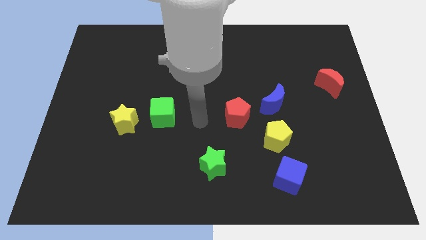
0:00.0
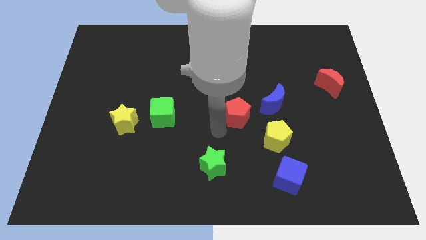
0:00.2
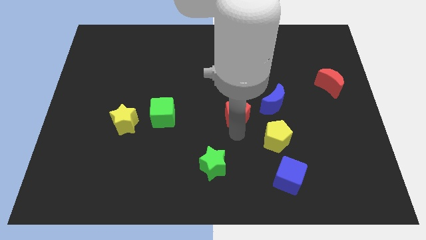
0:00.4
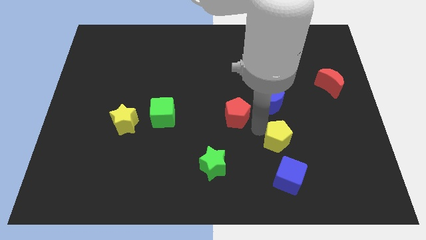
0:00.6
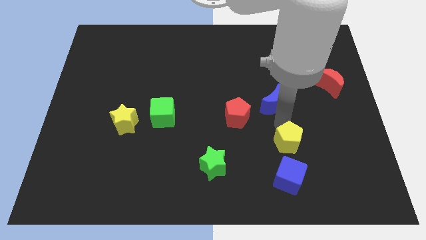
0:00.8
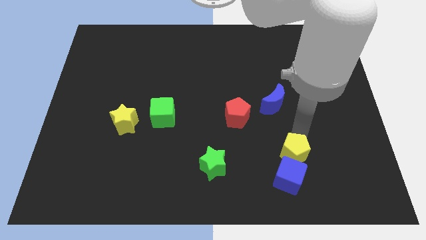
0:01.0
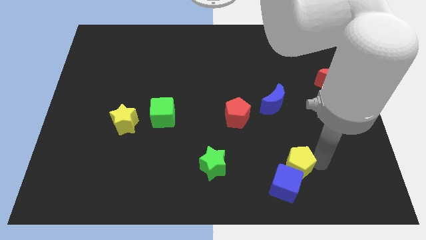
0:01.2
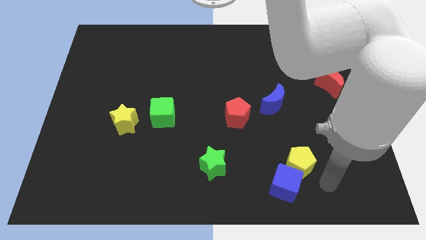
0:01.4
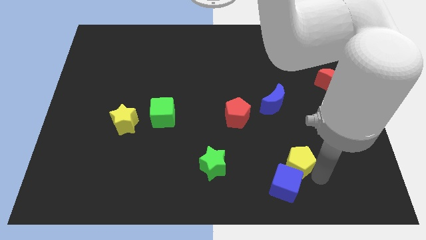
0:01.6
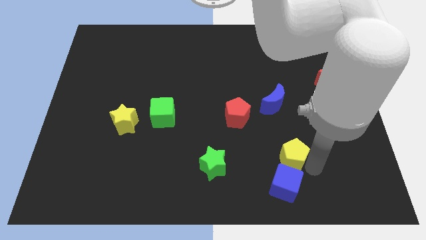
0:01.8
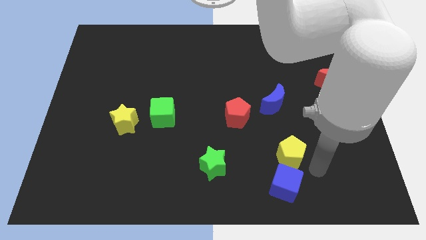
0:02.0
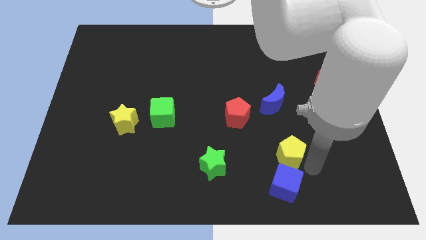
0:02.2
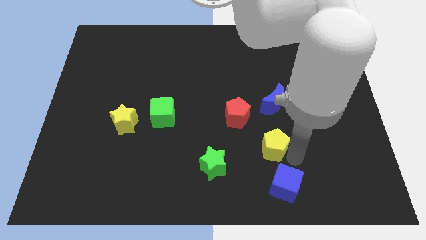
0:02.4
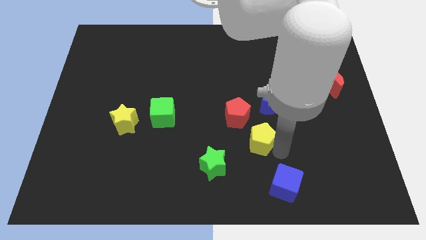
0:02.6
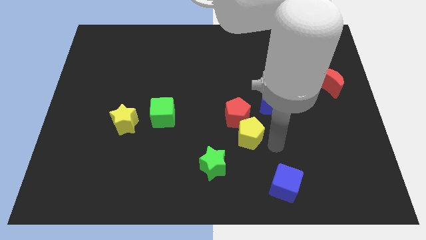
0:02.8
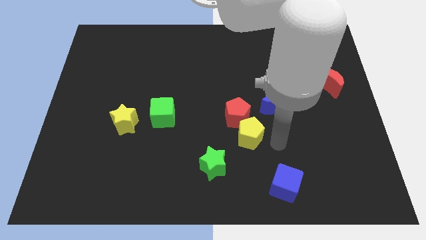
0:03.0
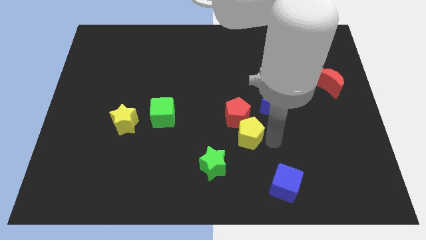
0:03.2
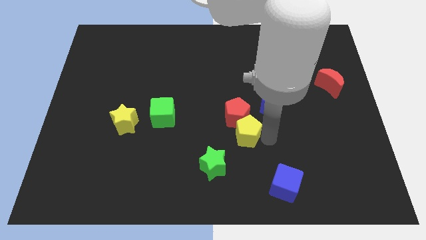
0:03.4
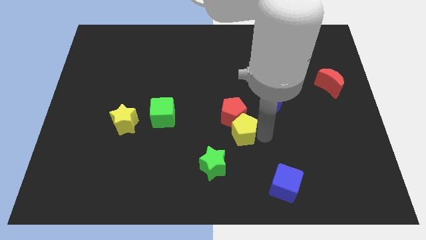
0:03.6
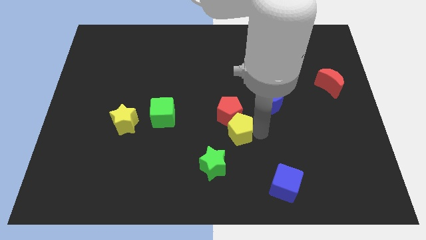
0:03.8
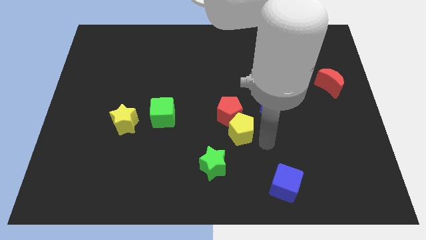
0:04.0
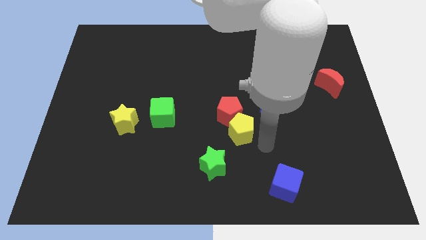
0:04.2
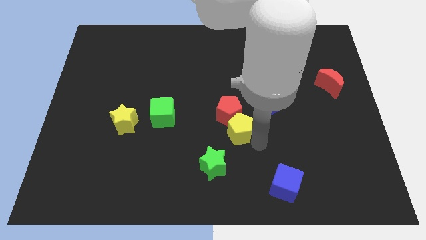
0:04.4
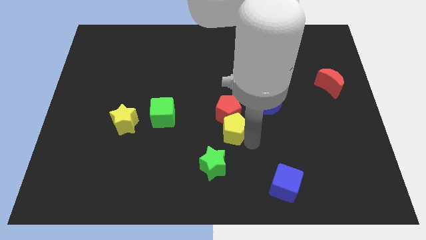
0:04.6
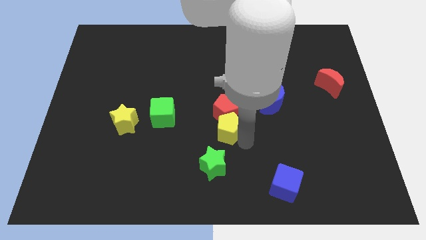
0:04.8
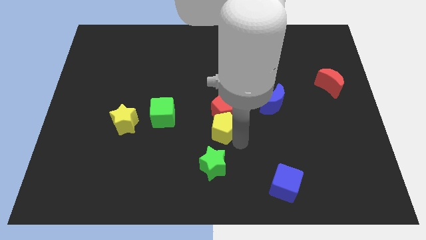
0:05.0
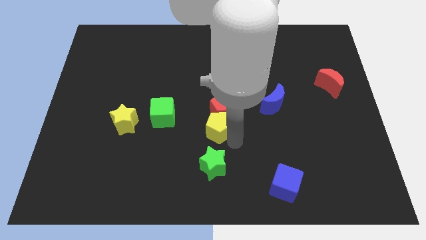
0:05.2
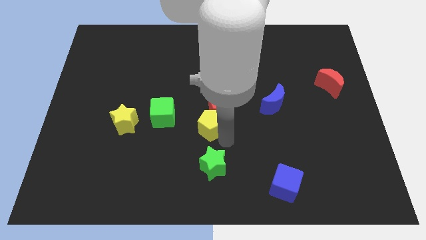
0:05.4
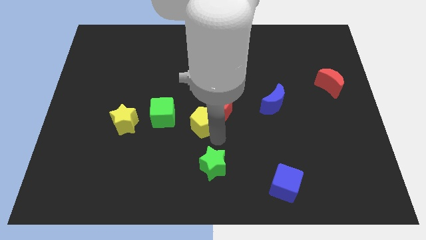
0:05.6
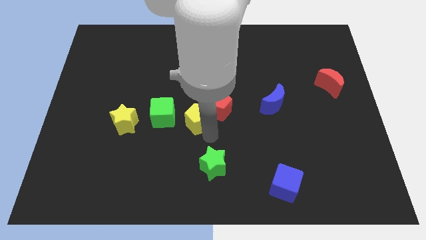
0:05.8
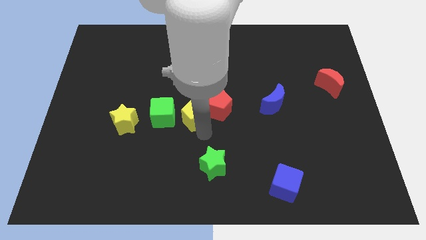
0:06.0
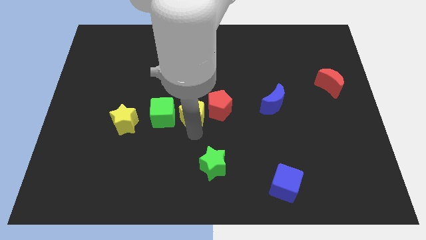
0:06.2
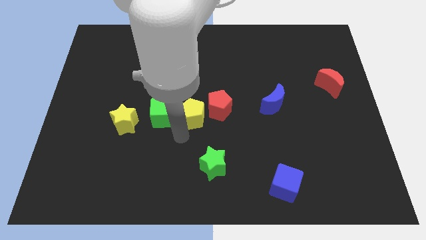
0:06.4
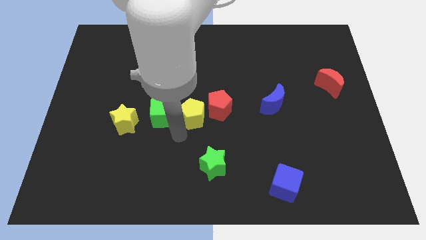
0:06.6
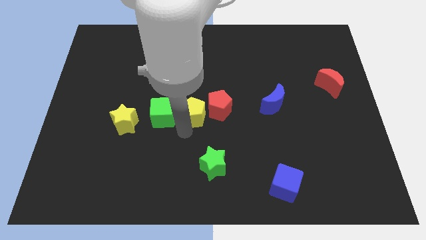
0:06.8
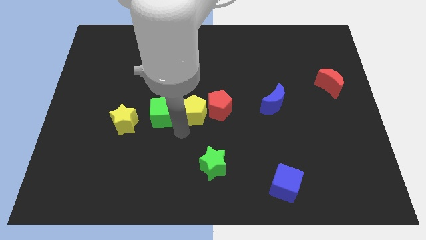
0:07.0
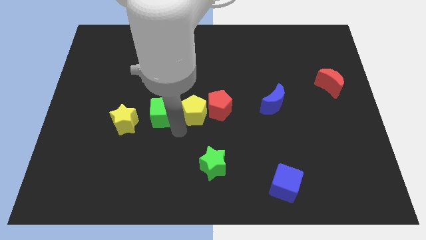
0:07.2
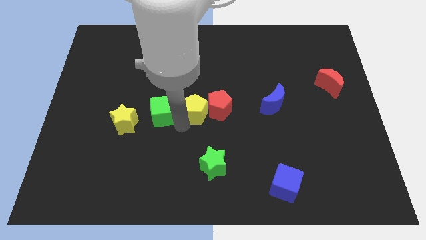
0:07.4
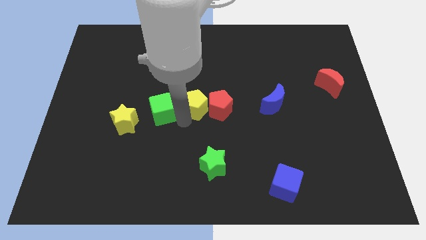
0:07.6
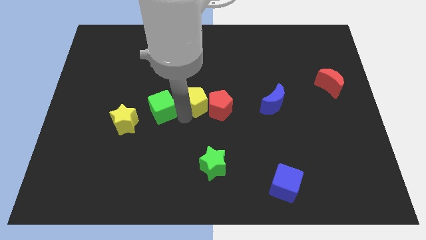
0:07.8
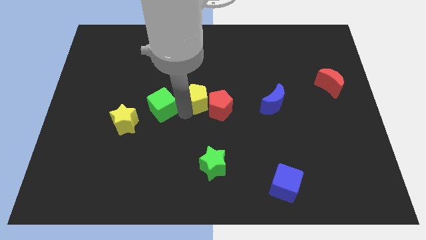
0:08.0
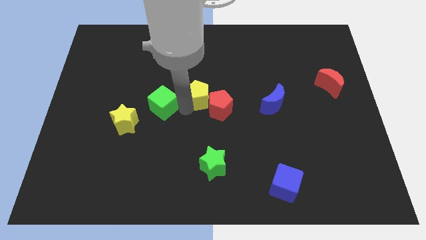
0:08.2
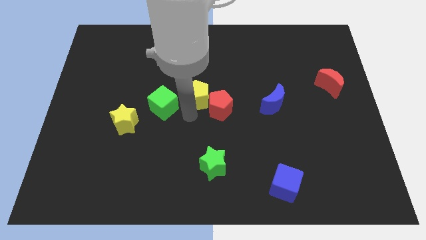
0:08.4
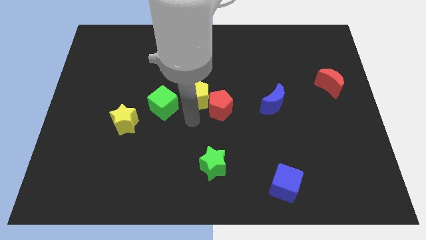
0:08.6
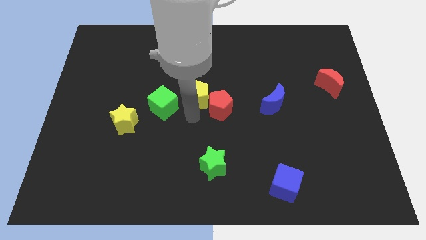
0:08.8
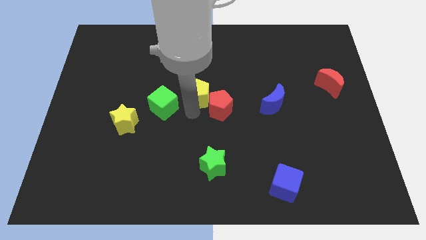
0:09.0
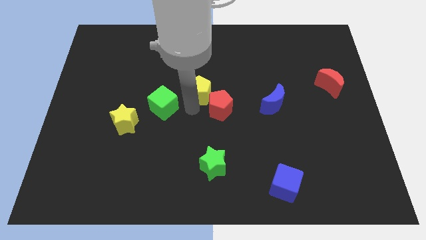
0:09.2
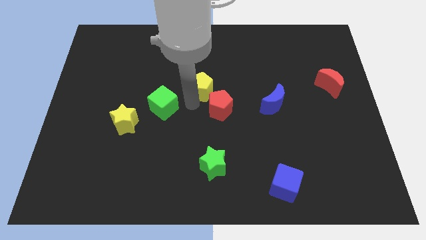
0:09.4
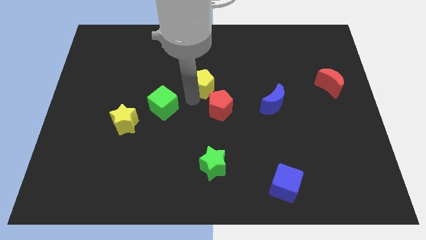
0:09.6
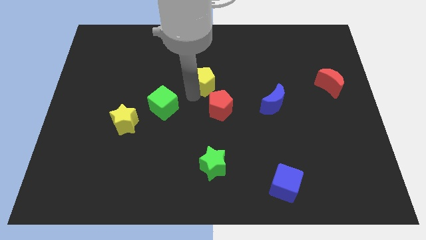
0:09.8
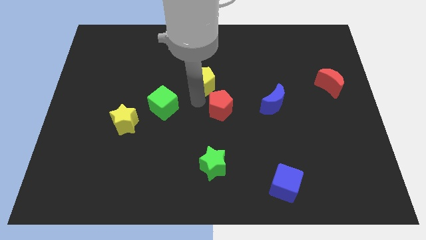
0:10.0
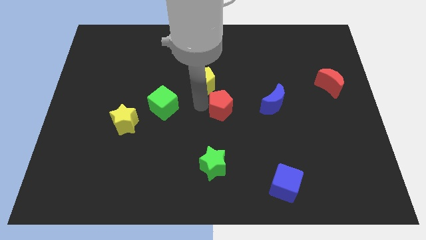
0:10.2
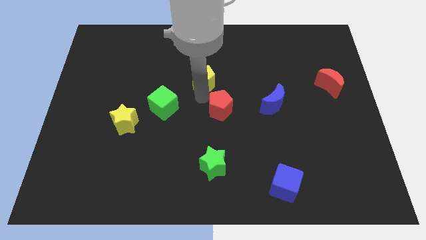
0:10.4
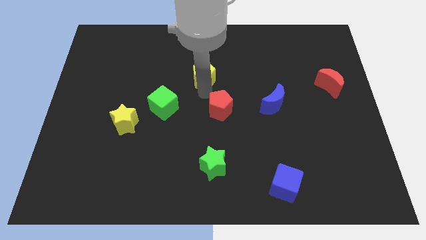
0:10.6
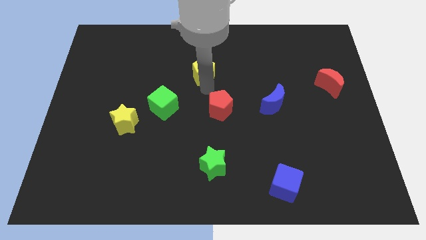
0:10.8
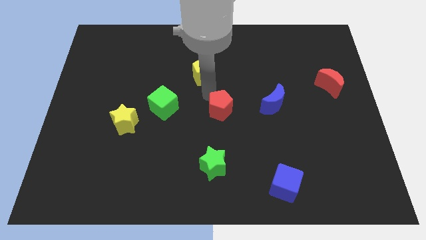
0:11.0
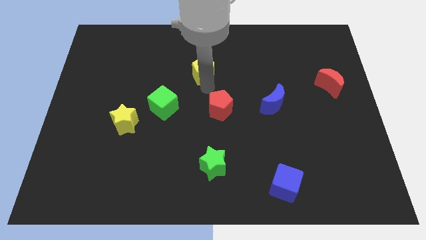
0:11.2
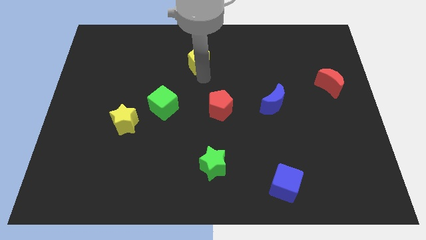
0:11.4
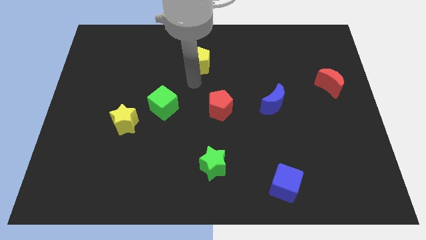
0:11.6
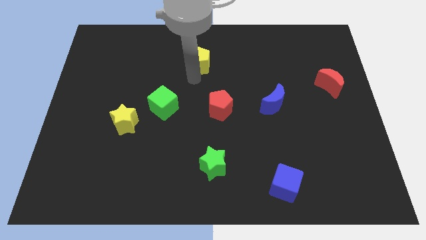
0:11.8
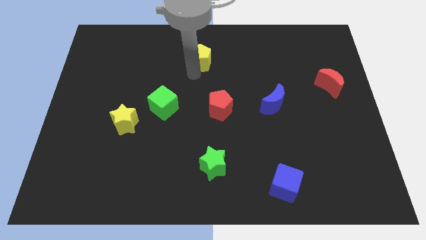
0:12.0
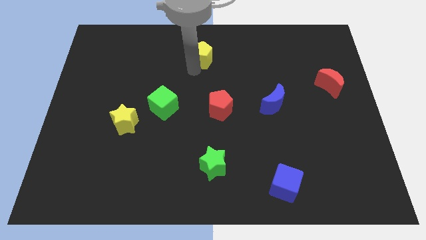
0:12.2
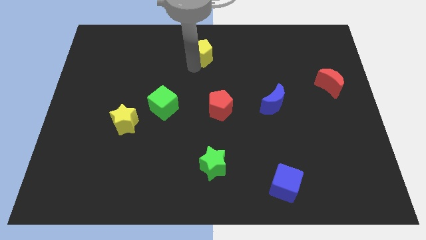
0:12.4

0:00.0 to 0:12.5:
put the yellow pentagon to the top
